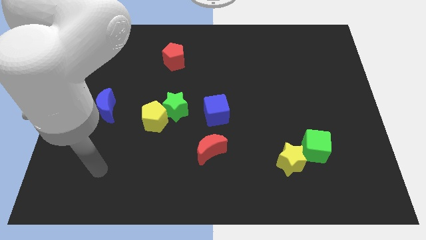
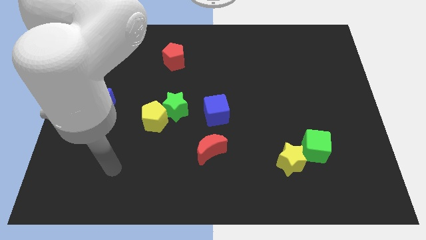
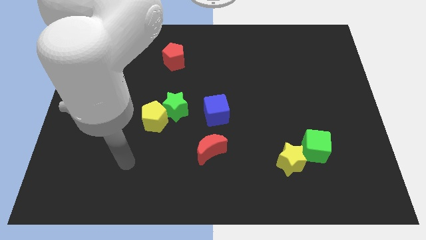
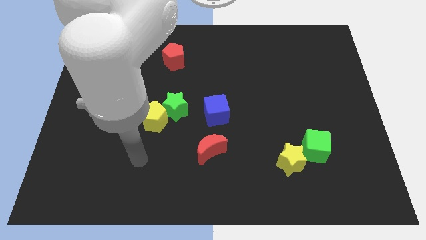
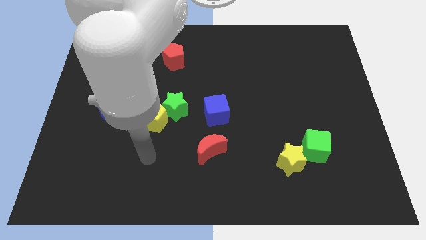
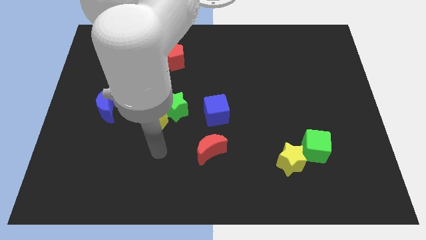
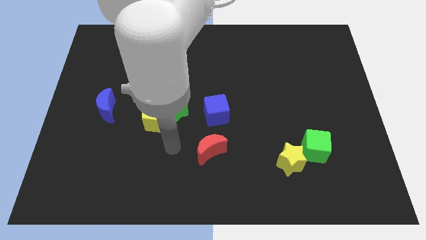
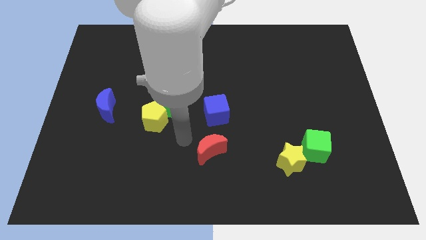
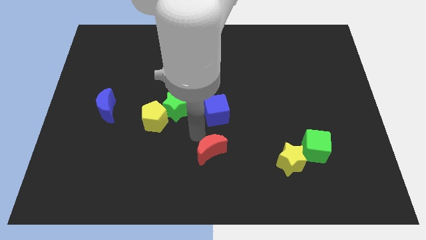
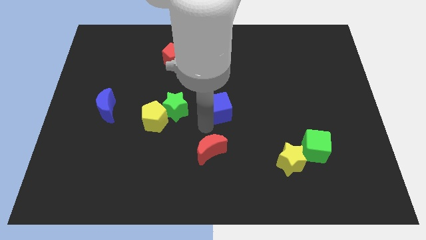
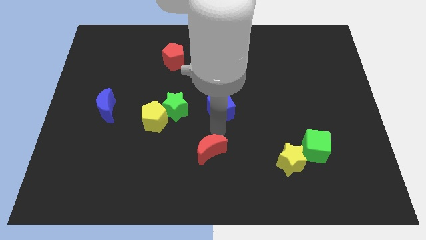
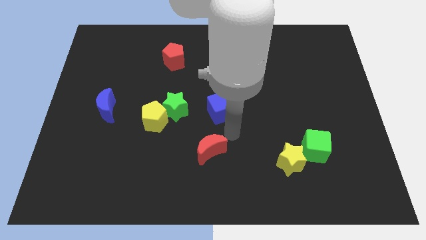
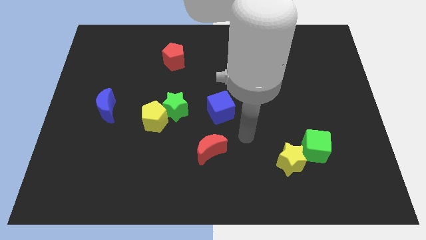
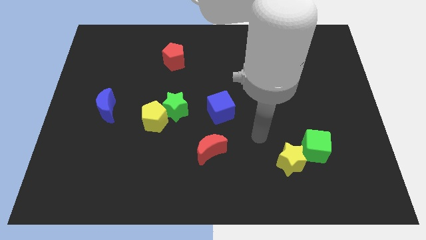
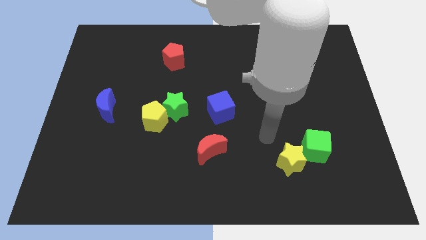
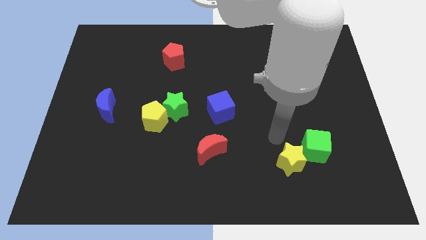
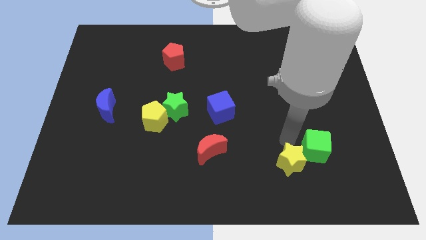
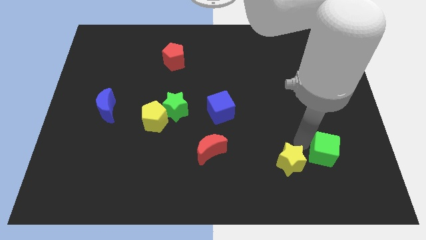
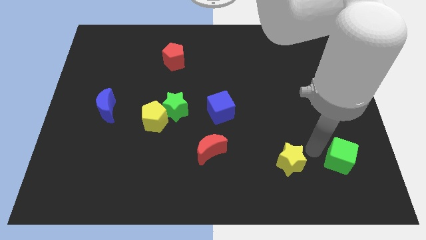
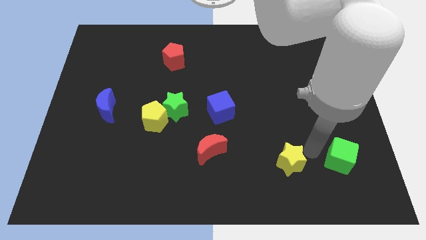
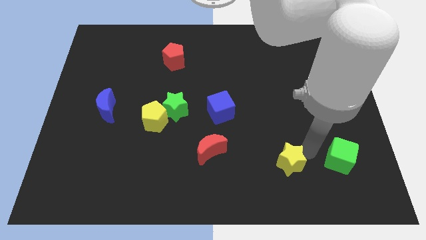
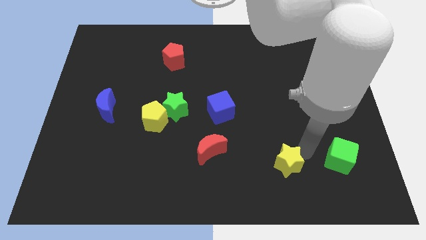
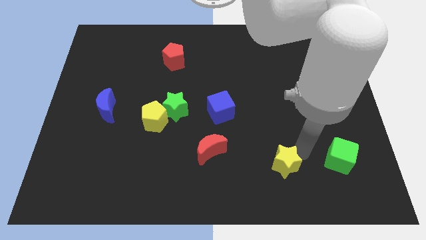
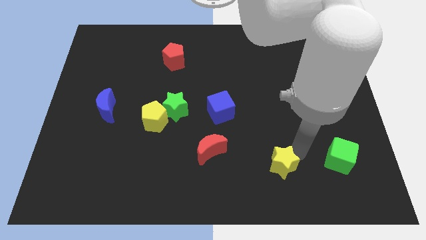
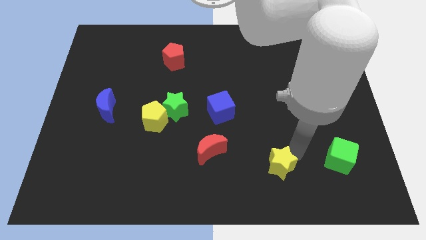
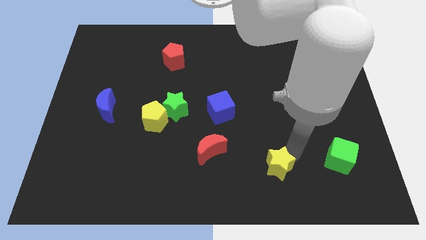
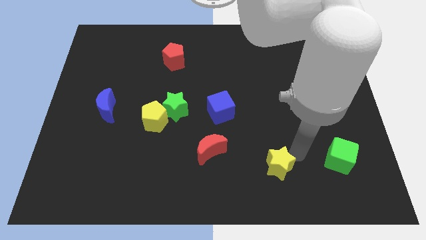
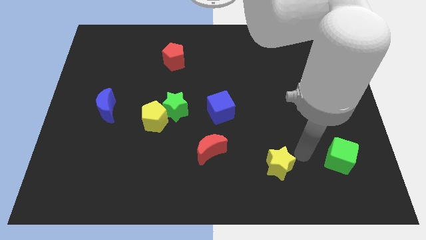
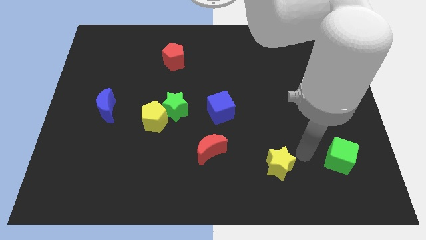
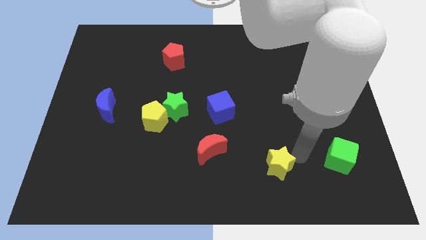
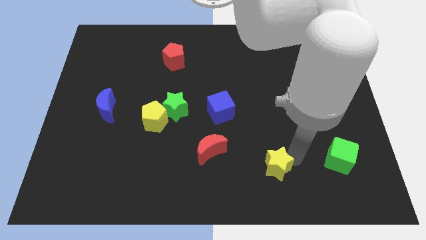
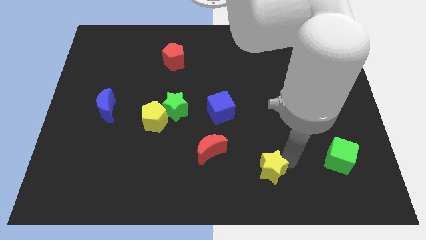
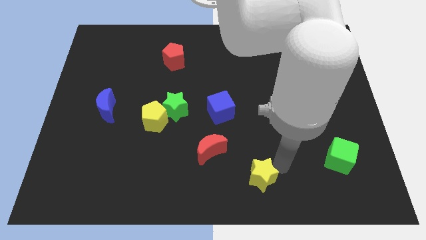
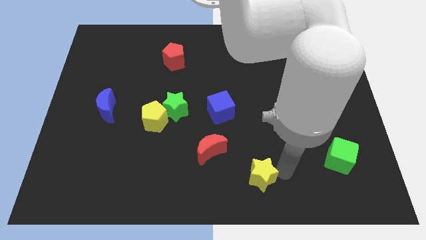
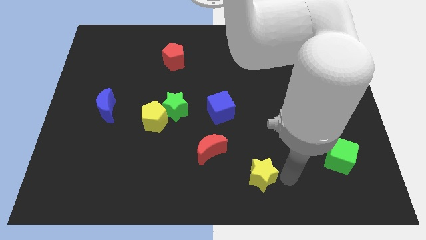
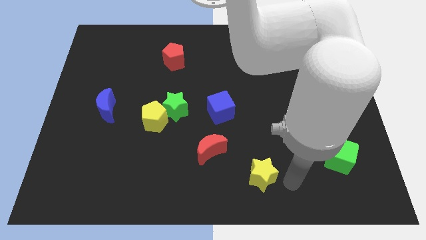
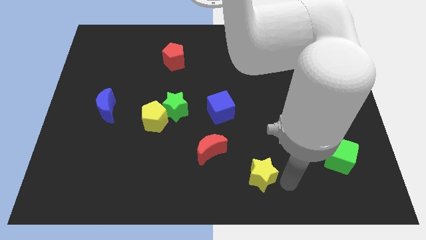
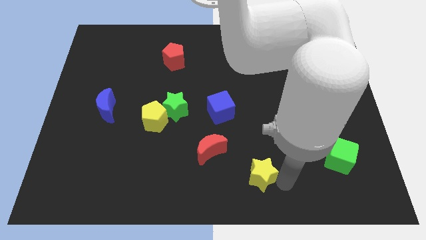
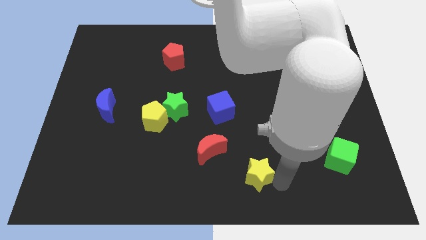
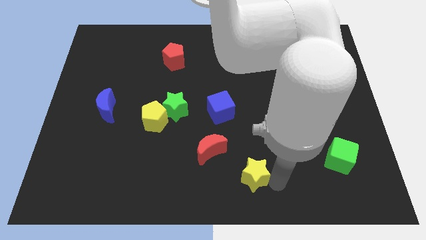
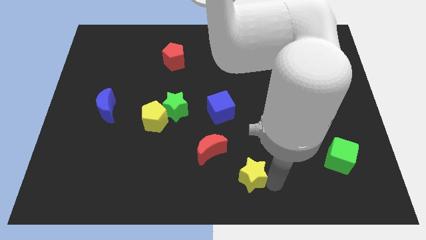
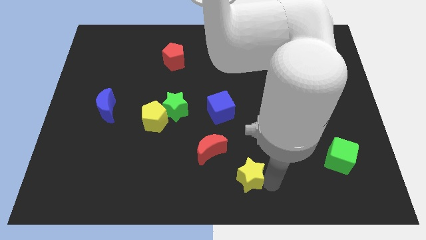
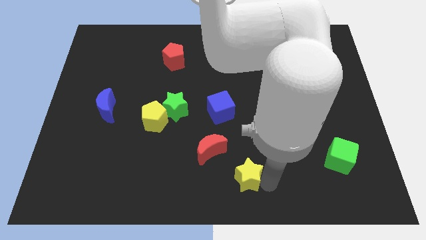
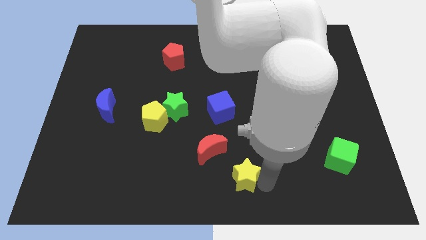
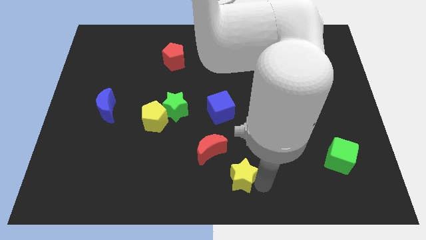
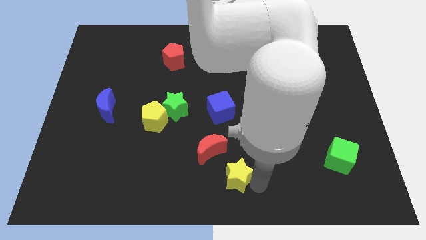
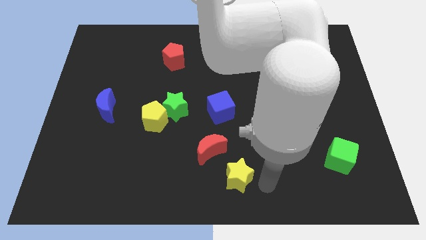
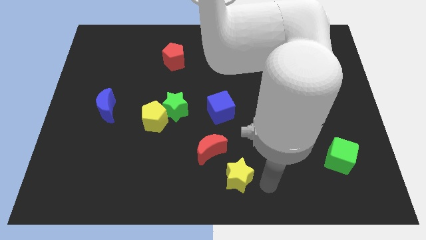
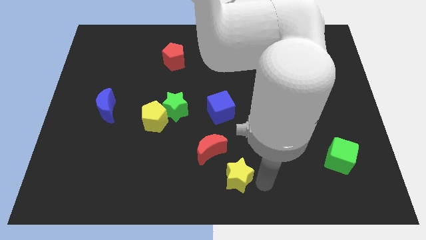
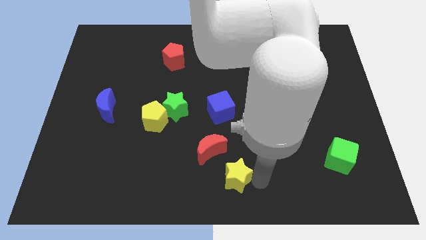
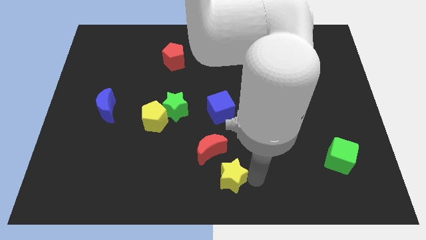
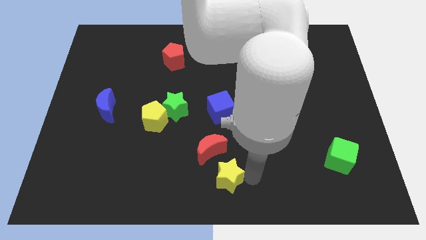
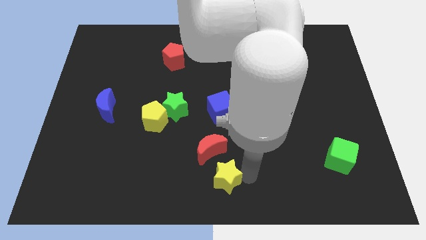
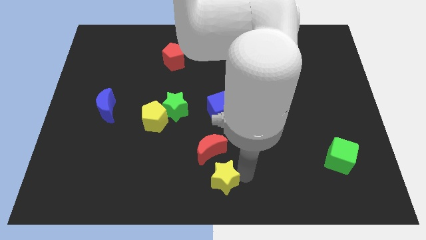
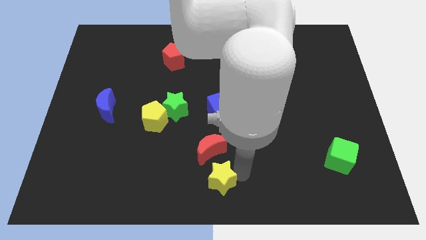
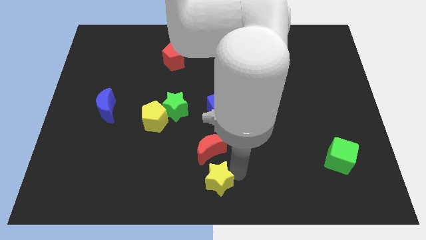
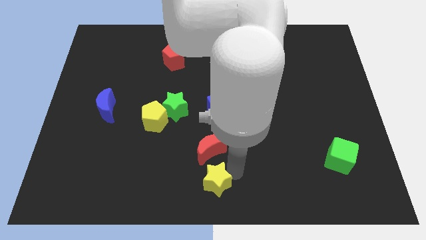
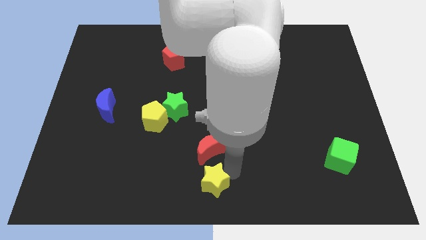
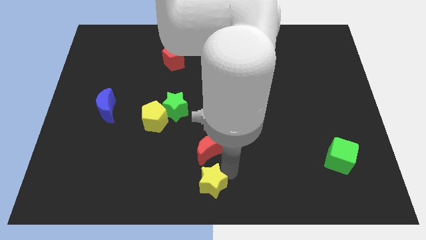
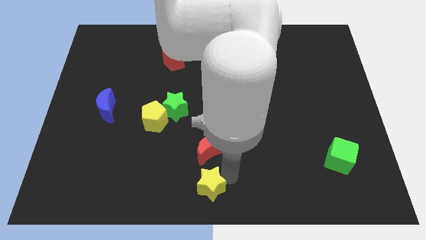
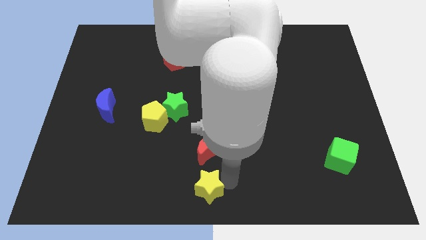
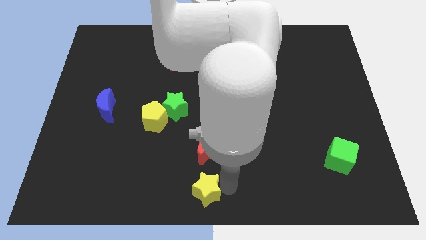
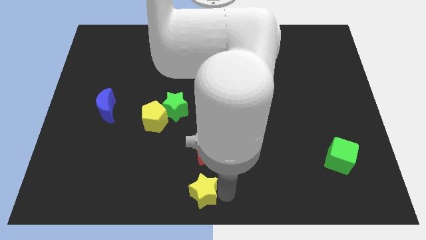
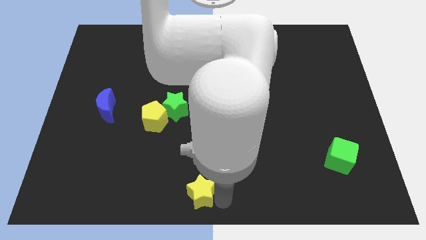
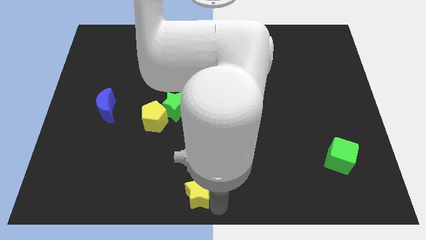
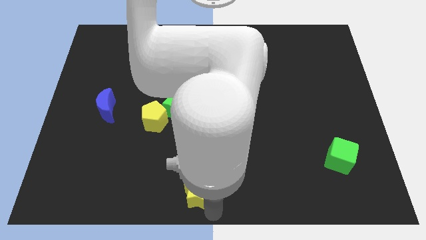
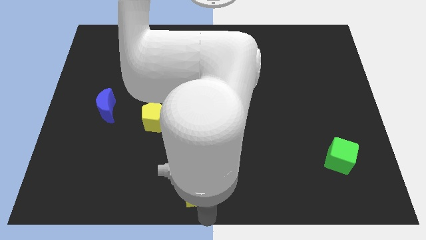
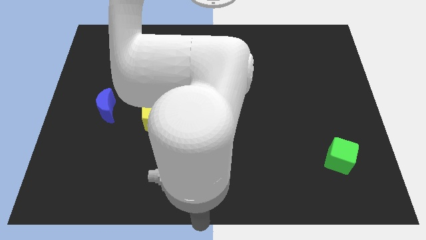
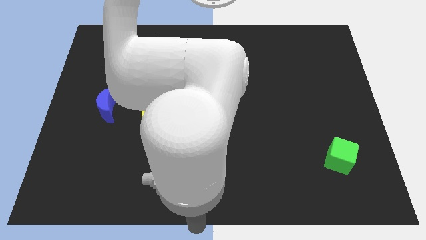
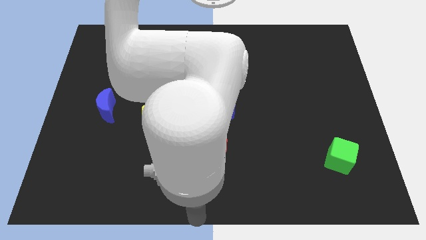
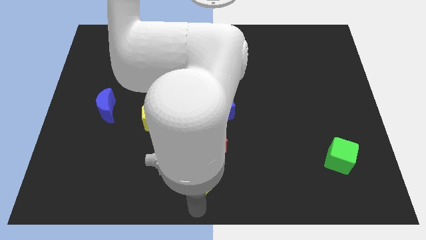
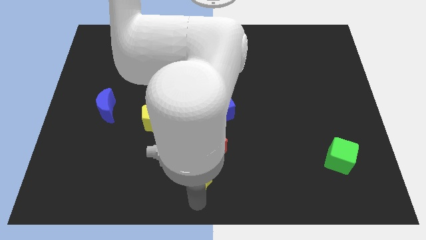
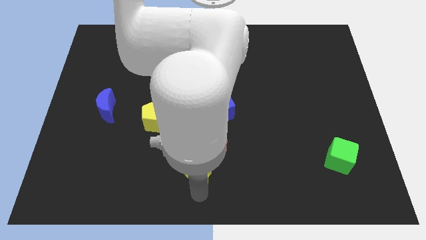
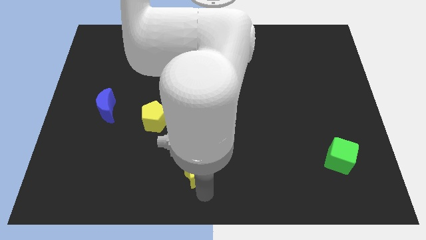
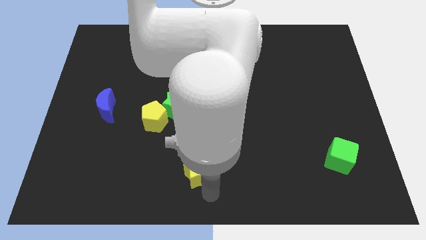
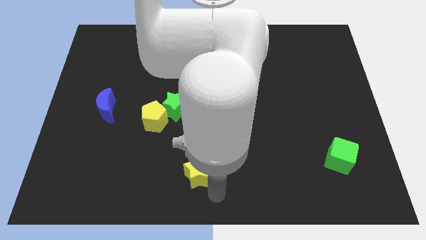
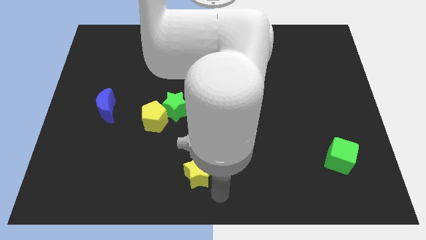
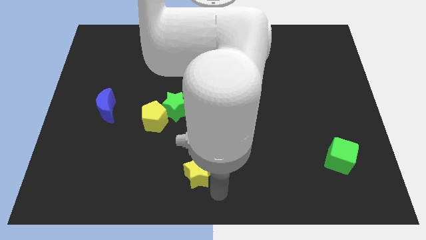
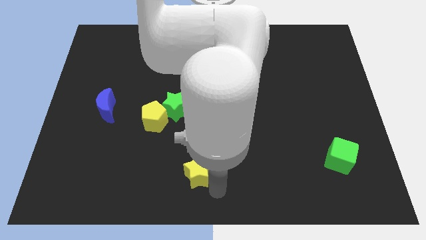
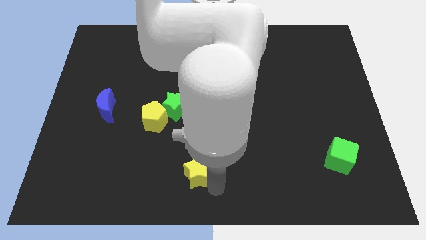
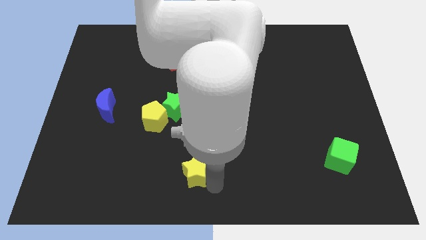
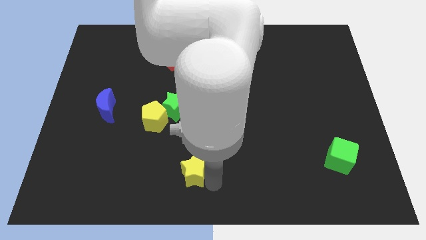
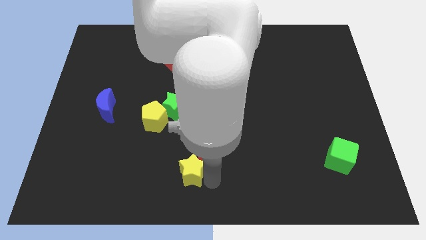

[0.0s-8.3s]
slide the yellow star to the left
